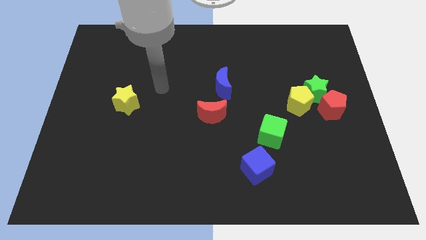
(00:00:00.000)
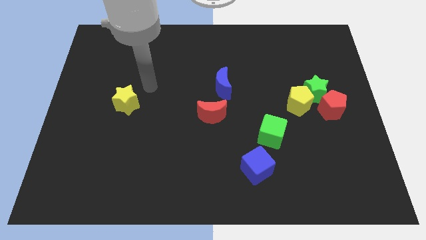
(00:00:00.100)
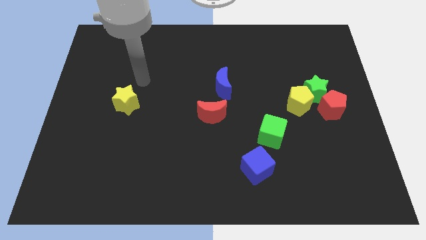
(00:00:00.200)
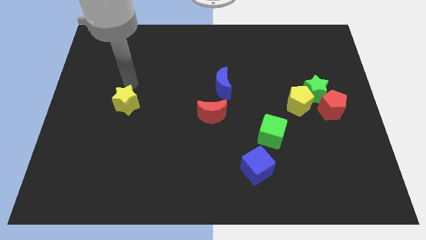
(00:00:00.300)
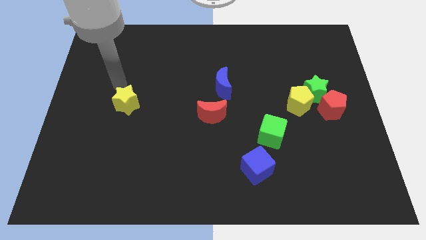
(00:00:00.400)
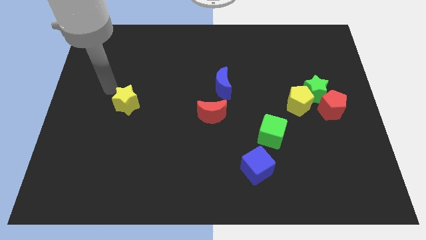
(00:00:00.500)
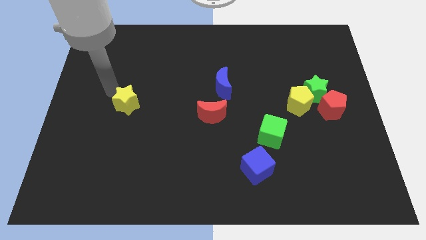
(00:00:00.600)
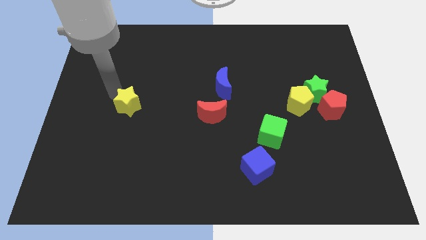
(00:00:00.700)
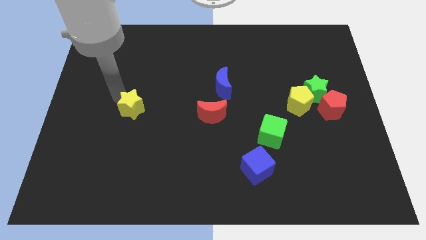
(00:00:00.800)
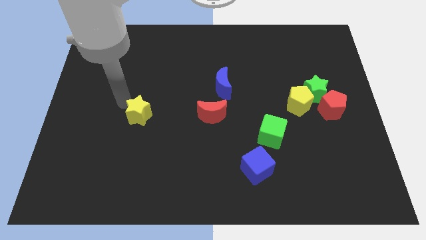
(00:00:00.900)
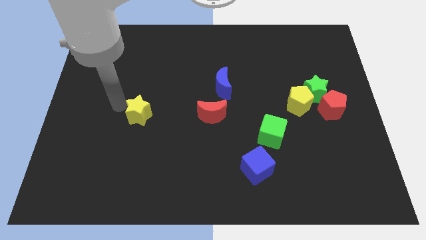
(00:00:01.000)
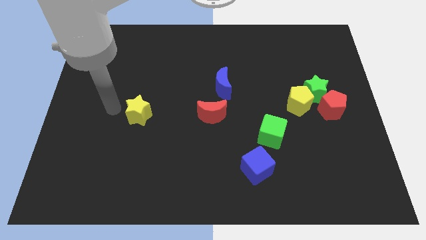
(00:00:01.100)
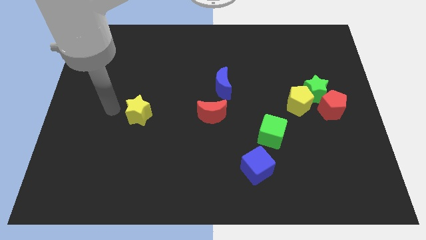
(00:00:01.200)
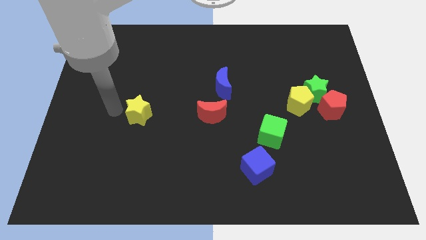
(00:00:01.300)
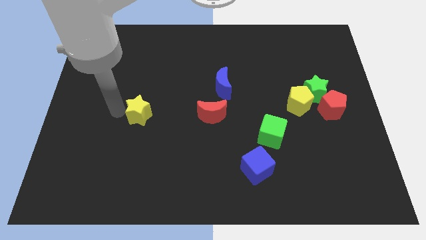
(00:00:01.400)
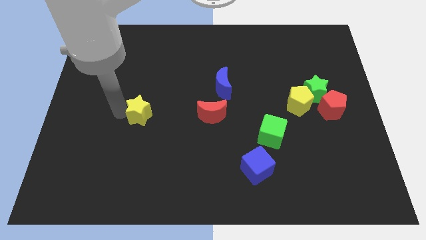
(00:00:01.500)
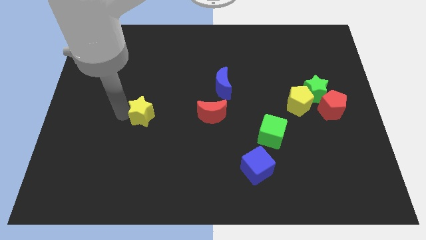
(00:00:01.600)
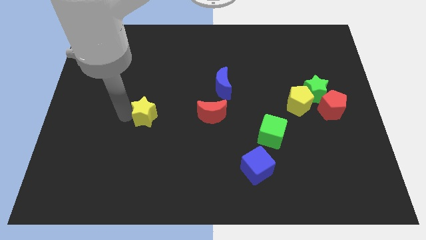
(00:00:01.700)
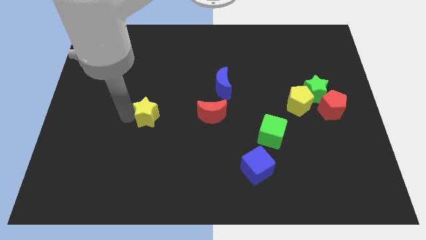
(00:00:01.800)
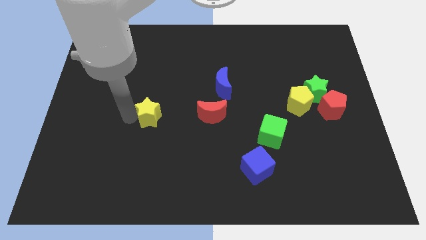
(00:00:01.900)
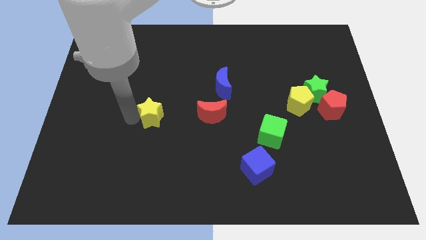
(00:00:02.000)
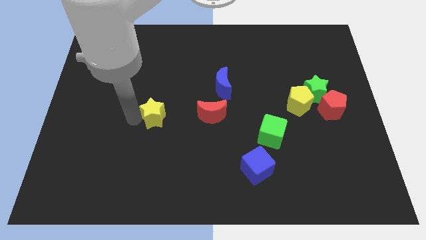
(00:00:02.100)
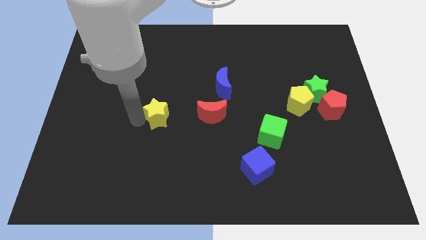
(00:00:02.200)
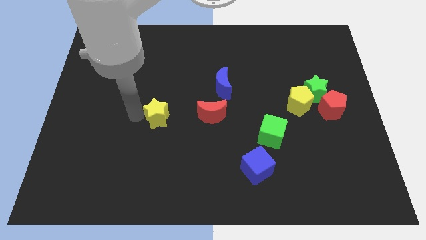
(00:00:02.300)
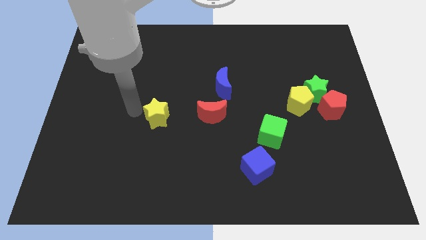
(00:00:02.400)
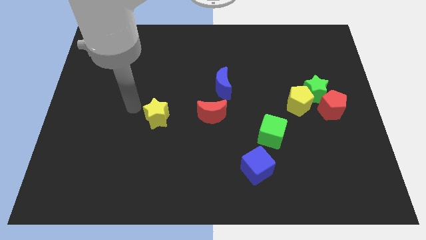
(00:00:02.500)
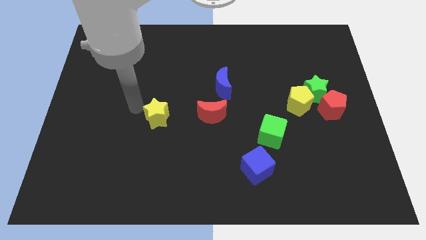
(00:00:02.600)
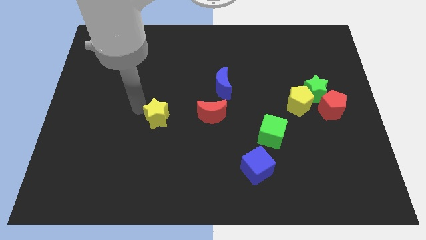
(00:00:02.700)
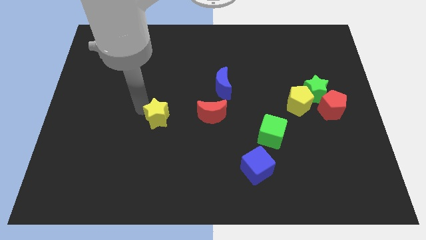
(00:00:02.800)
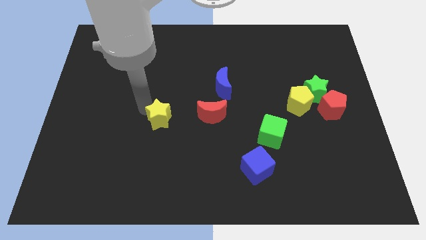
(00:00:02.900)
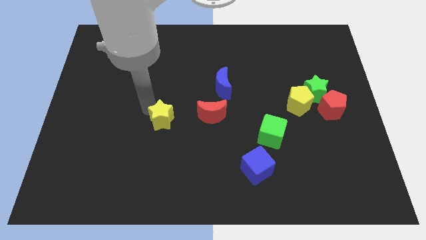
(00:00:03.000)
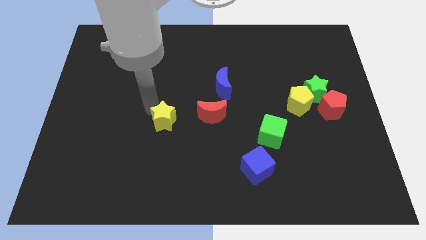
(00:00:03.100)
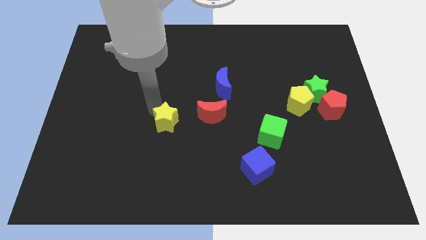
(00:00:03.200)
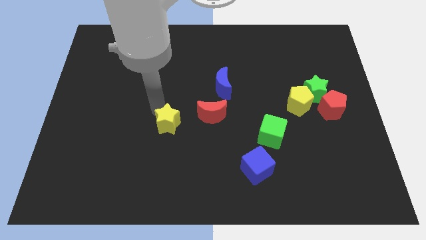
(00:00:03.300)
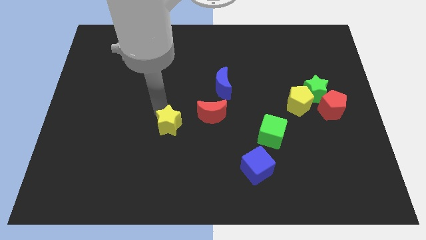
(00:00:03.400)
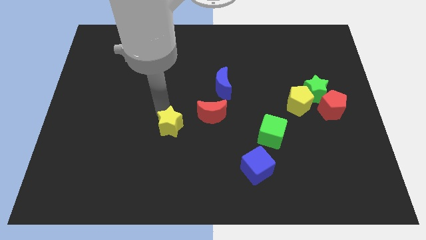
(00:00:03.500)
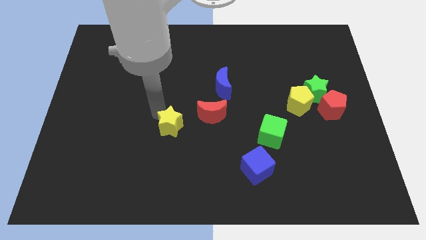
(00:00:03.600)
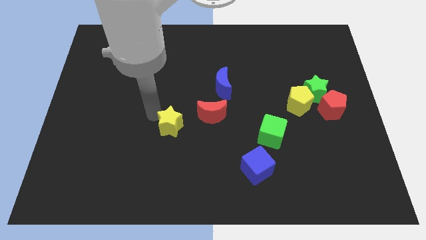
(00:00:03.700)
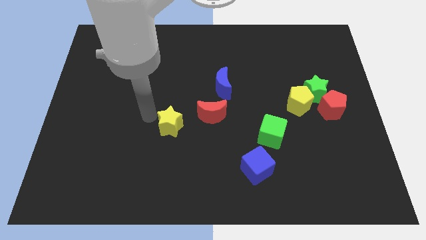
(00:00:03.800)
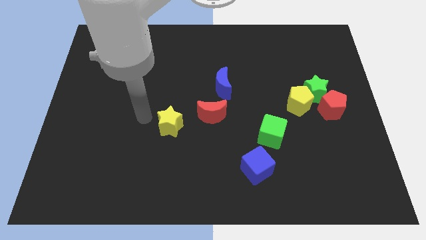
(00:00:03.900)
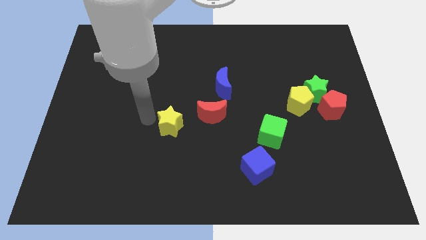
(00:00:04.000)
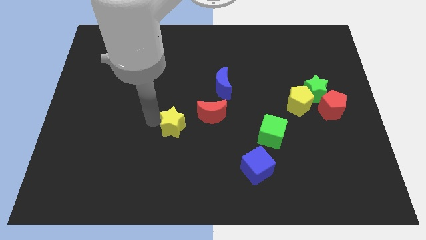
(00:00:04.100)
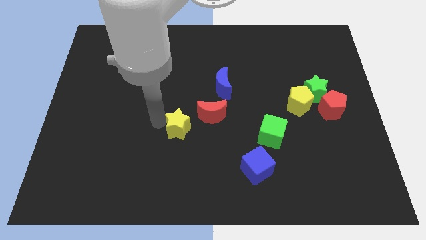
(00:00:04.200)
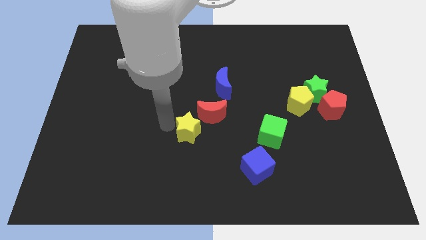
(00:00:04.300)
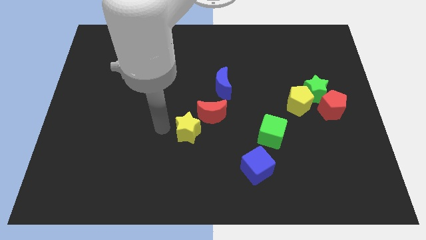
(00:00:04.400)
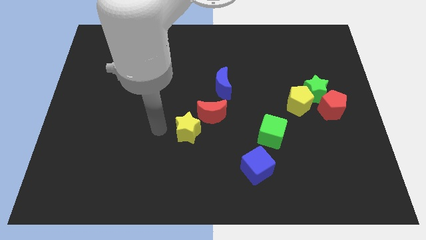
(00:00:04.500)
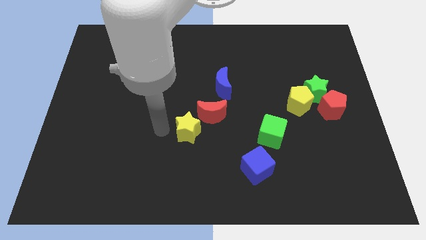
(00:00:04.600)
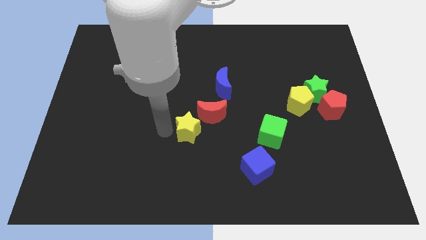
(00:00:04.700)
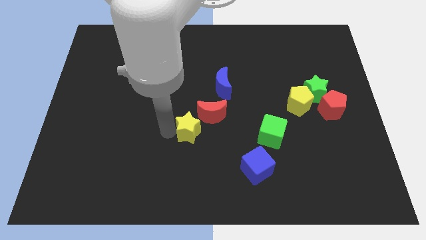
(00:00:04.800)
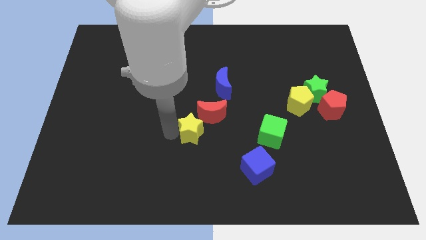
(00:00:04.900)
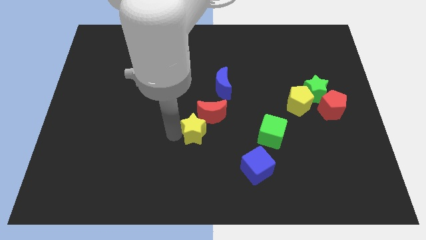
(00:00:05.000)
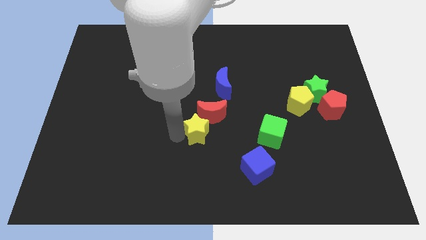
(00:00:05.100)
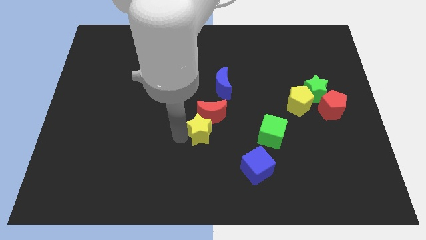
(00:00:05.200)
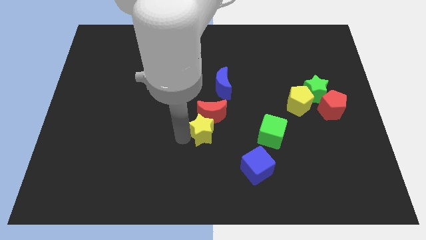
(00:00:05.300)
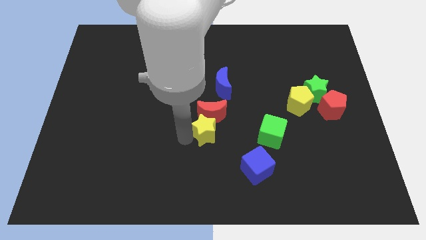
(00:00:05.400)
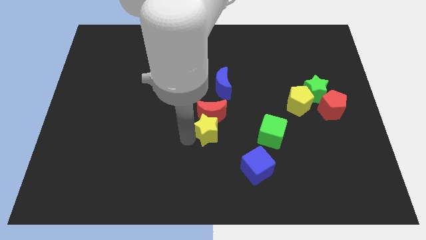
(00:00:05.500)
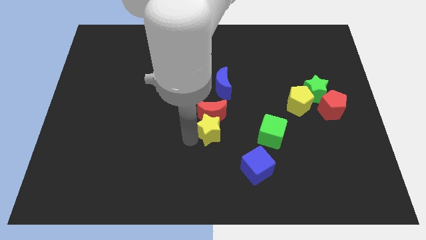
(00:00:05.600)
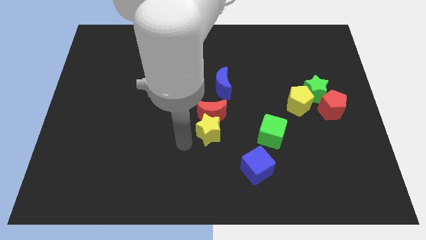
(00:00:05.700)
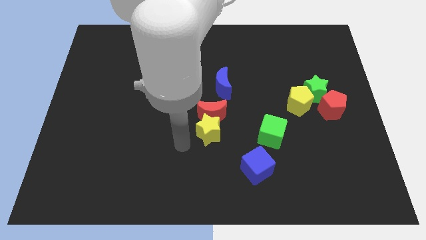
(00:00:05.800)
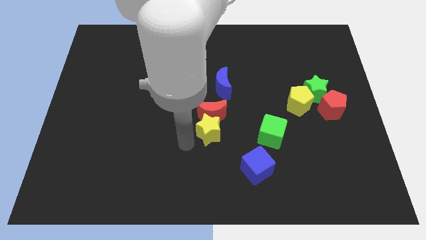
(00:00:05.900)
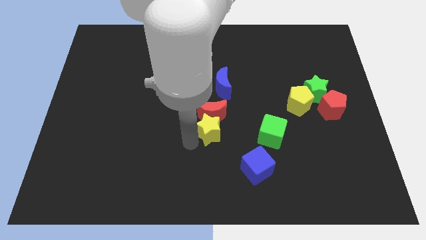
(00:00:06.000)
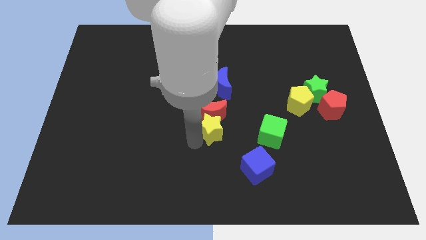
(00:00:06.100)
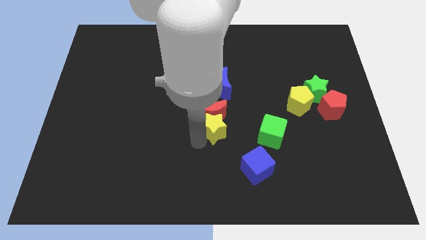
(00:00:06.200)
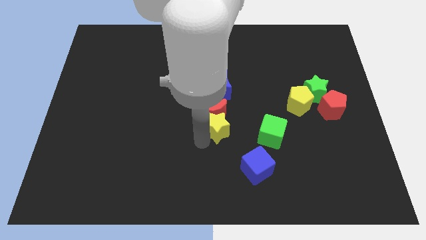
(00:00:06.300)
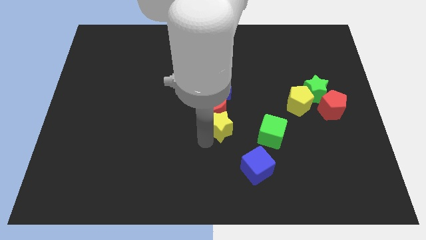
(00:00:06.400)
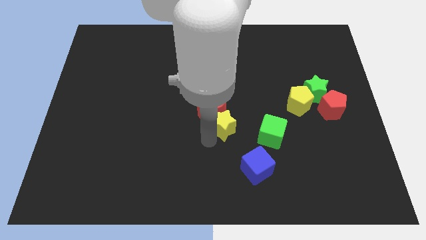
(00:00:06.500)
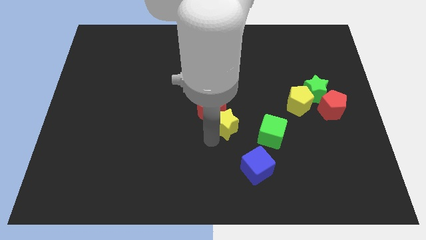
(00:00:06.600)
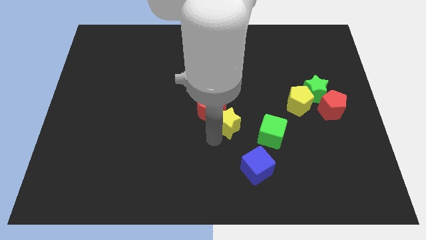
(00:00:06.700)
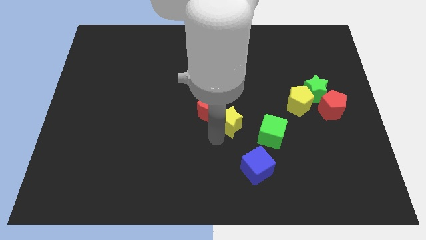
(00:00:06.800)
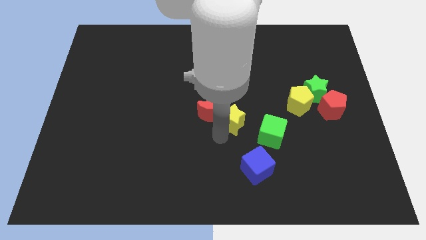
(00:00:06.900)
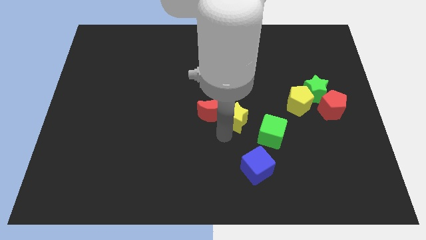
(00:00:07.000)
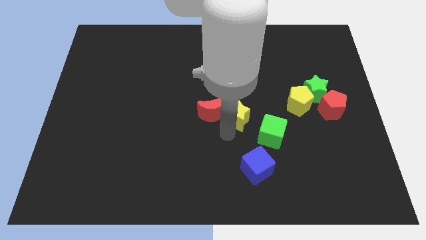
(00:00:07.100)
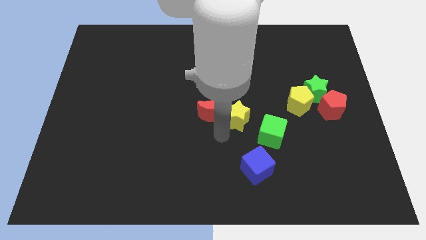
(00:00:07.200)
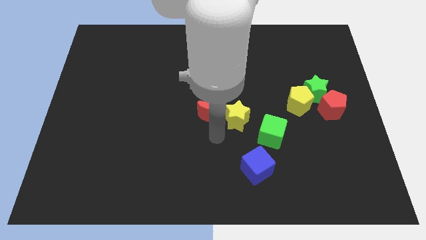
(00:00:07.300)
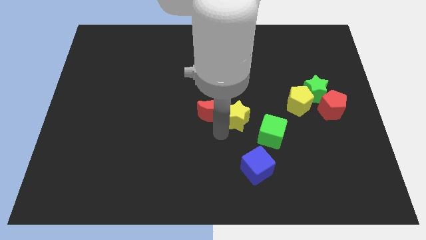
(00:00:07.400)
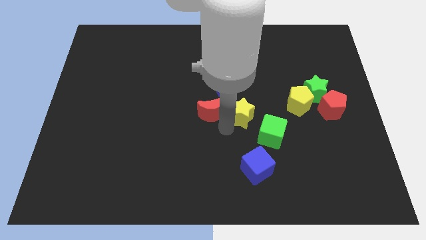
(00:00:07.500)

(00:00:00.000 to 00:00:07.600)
put the yellow star left of the yellow pentagon

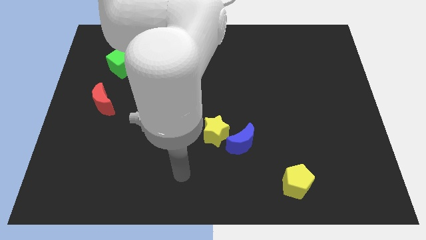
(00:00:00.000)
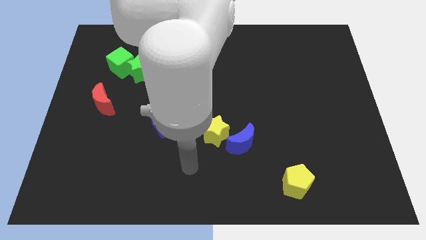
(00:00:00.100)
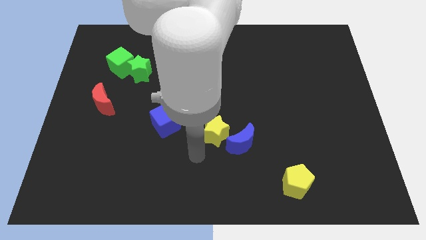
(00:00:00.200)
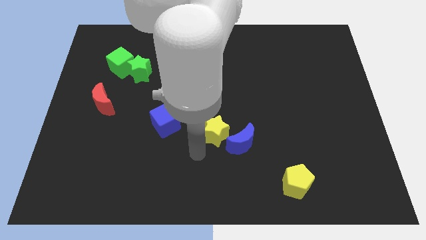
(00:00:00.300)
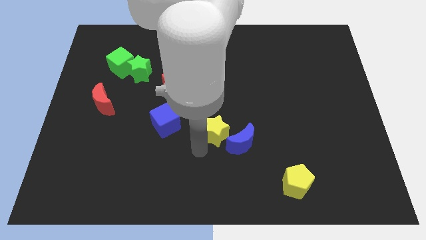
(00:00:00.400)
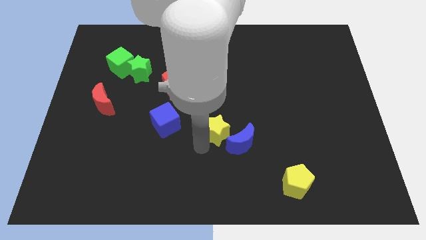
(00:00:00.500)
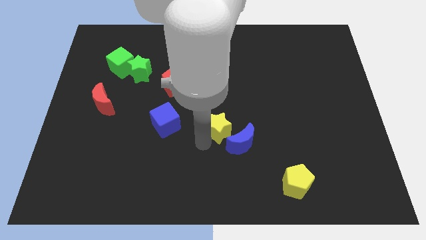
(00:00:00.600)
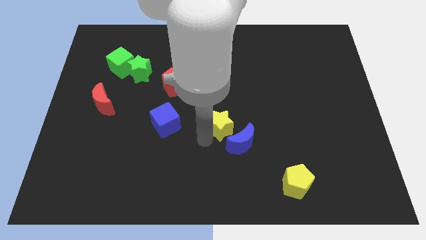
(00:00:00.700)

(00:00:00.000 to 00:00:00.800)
slide the yellow star to the top of the blue moon
